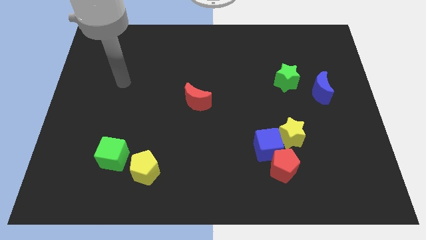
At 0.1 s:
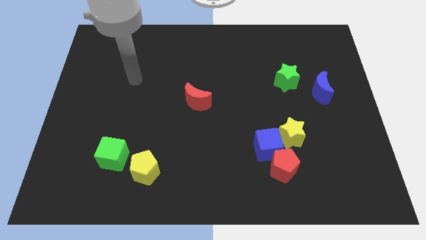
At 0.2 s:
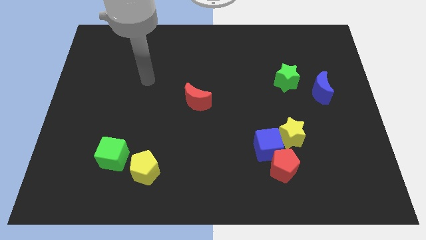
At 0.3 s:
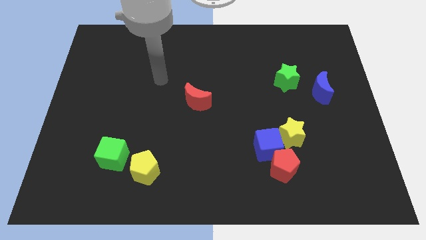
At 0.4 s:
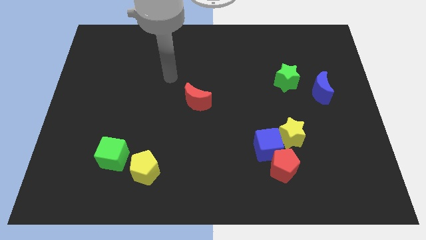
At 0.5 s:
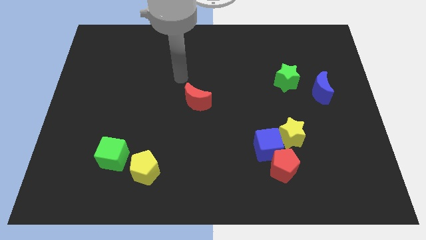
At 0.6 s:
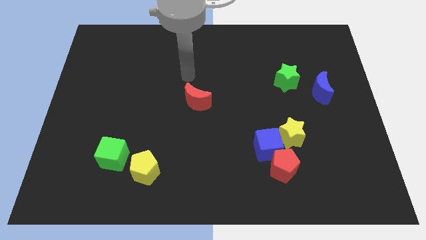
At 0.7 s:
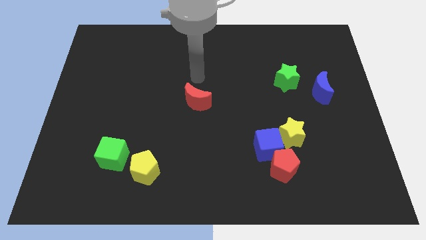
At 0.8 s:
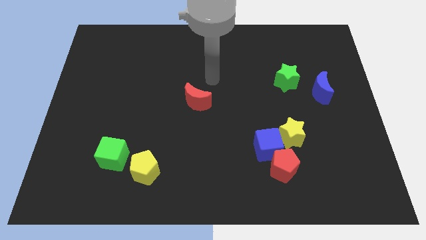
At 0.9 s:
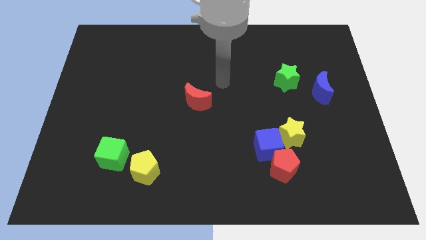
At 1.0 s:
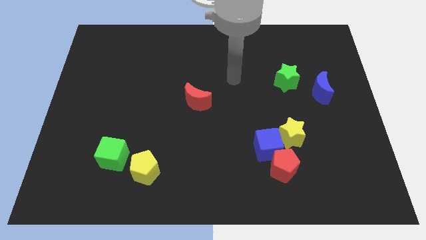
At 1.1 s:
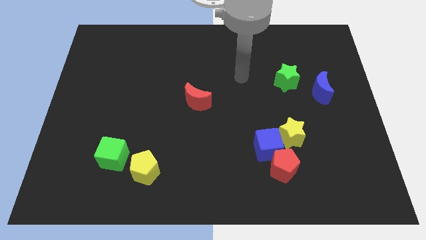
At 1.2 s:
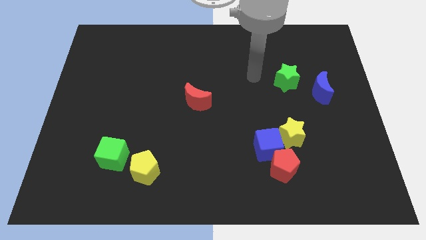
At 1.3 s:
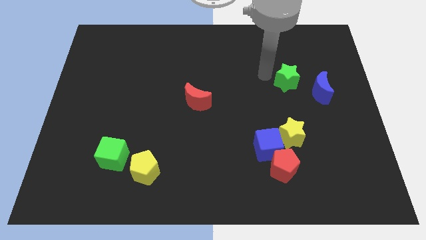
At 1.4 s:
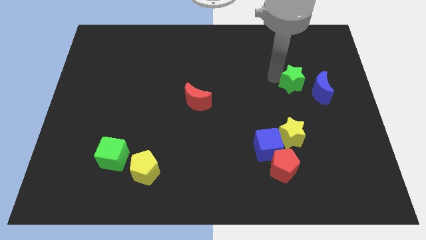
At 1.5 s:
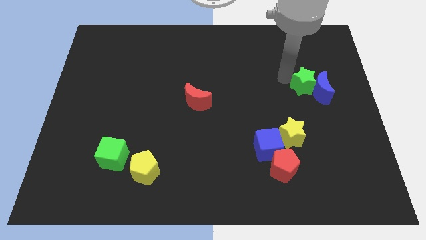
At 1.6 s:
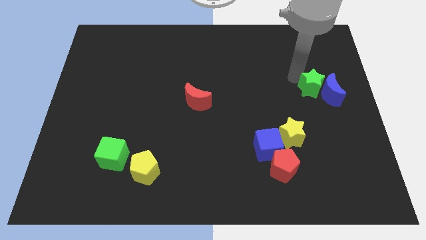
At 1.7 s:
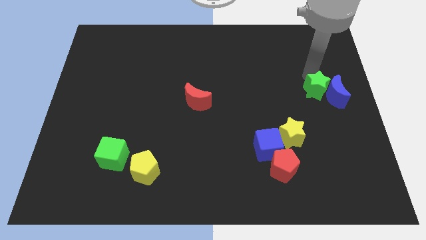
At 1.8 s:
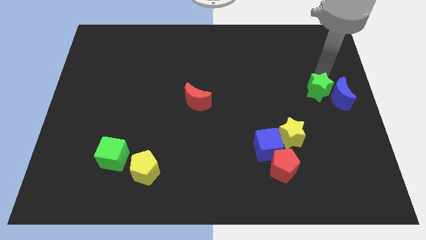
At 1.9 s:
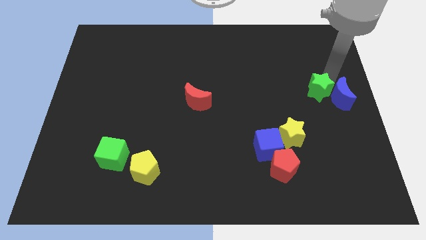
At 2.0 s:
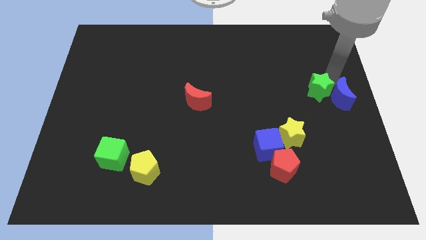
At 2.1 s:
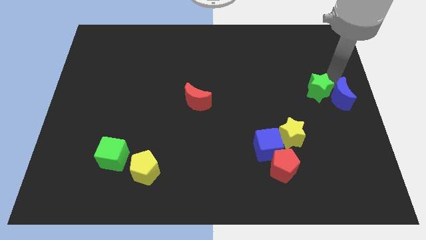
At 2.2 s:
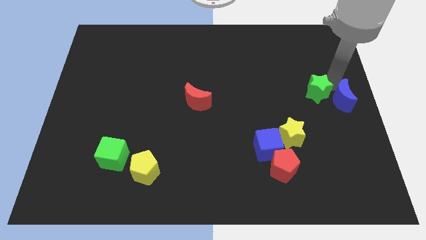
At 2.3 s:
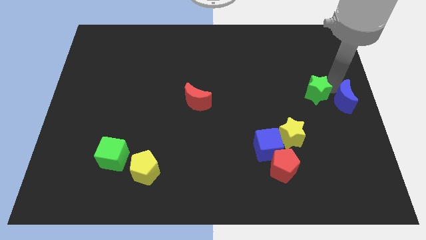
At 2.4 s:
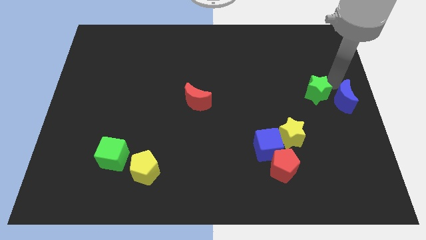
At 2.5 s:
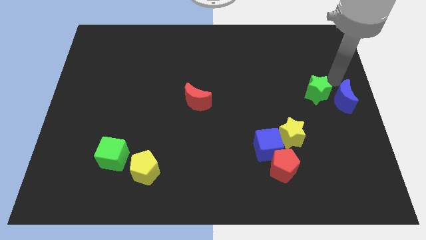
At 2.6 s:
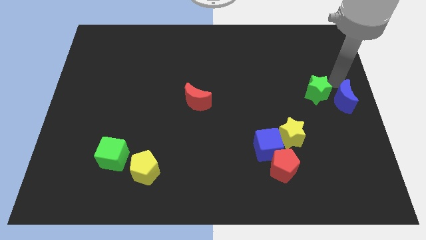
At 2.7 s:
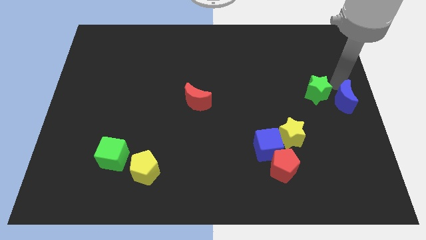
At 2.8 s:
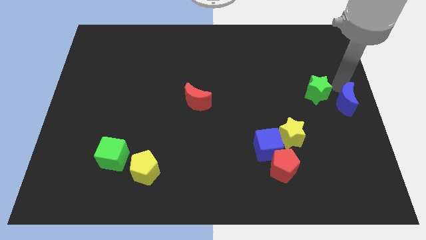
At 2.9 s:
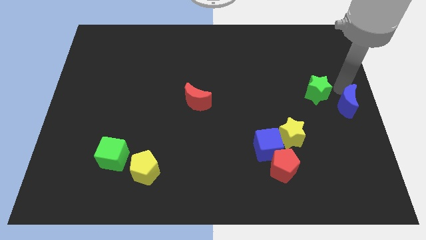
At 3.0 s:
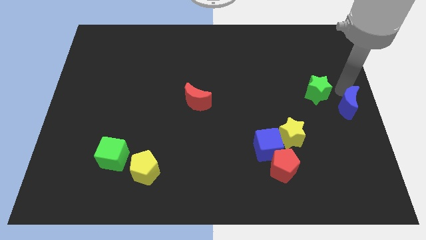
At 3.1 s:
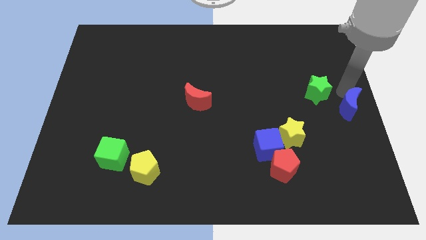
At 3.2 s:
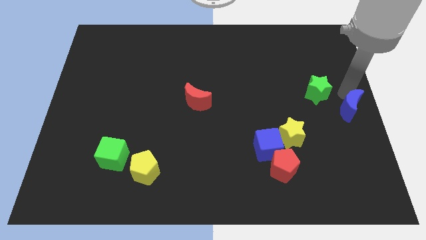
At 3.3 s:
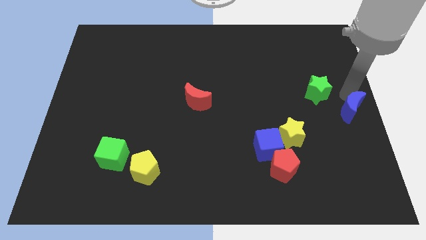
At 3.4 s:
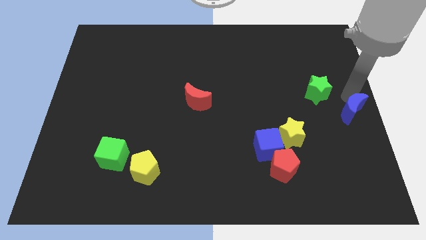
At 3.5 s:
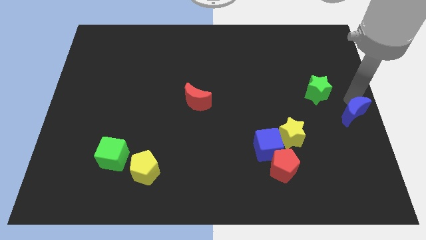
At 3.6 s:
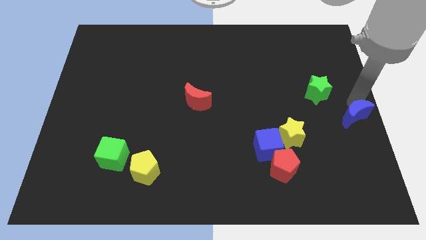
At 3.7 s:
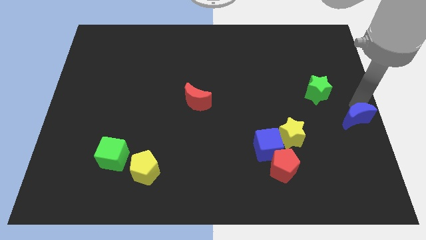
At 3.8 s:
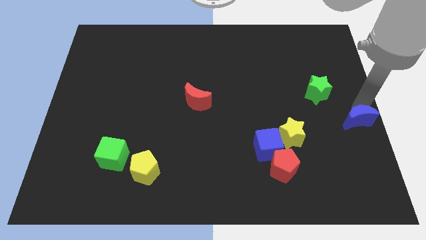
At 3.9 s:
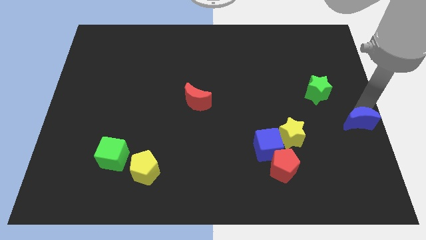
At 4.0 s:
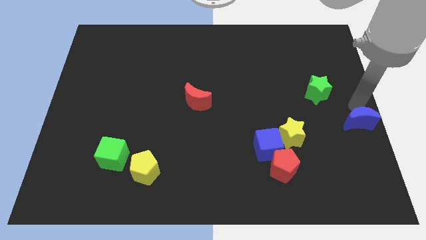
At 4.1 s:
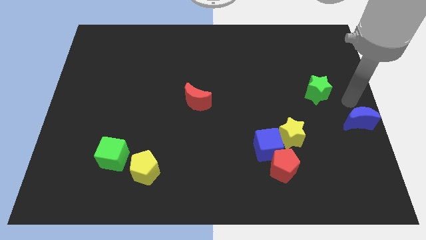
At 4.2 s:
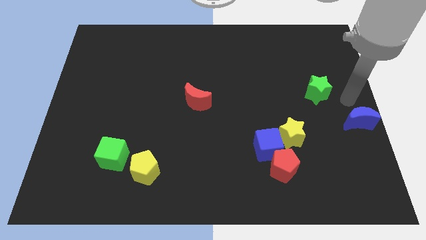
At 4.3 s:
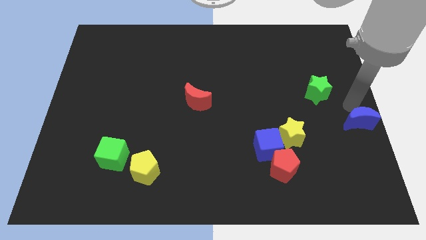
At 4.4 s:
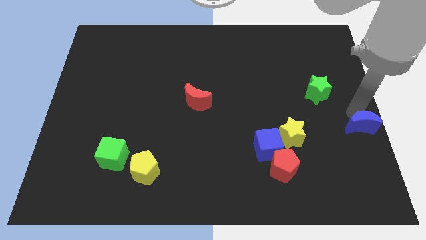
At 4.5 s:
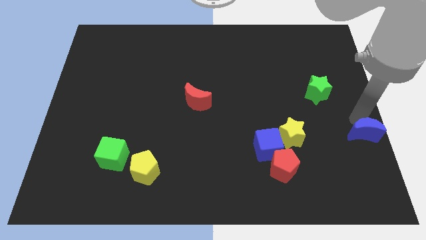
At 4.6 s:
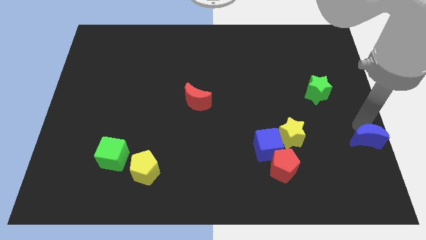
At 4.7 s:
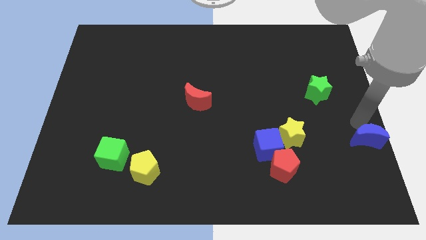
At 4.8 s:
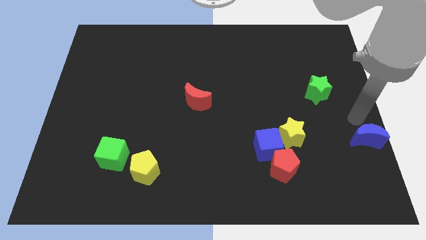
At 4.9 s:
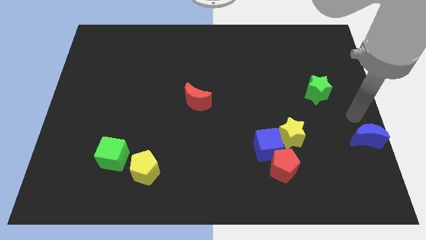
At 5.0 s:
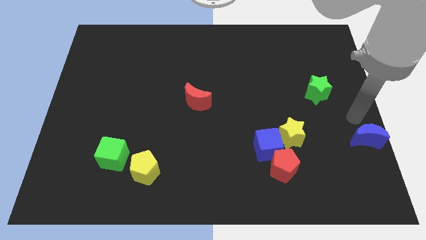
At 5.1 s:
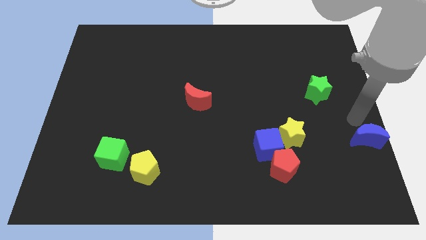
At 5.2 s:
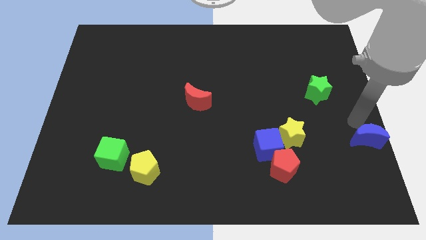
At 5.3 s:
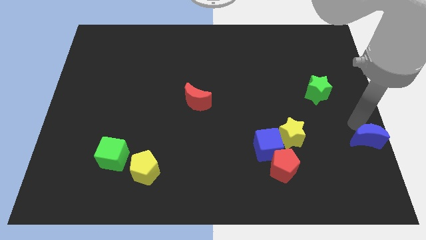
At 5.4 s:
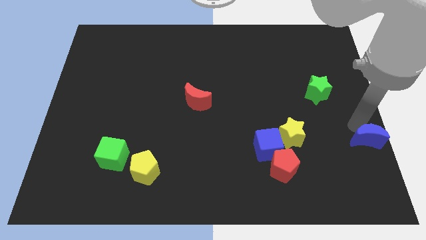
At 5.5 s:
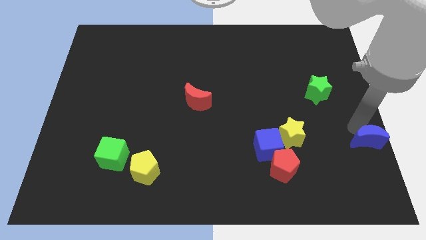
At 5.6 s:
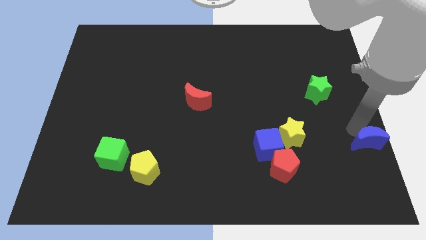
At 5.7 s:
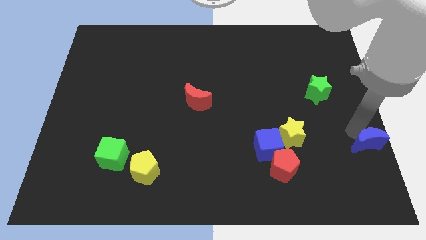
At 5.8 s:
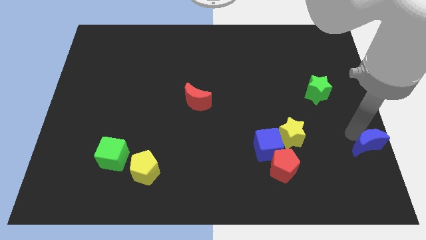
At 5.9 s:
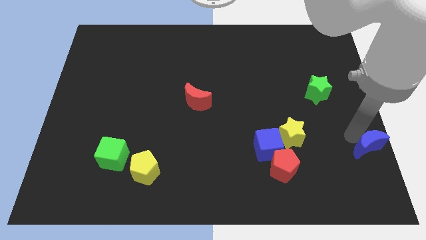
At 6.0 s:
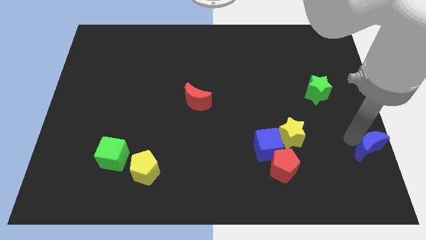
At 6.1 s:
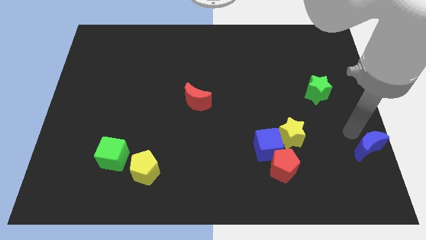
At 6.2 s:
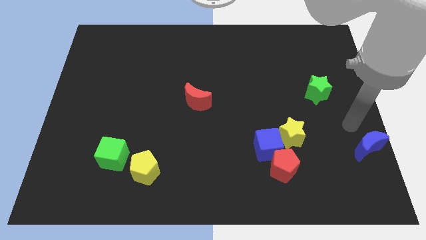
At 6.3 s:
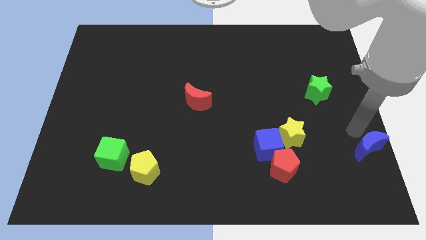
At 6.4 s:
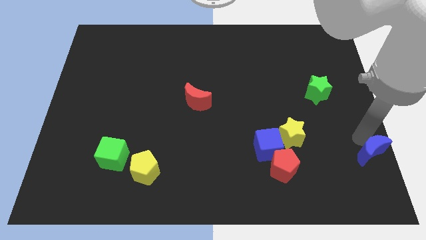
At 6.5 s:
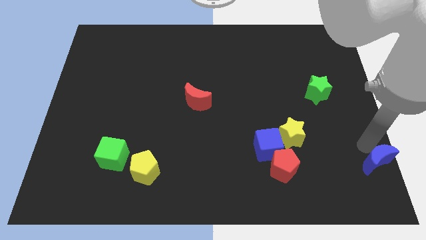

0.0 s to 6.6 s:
slide the blue moon to the bottom right corner
